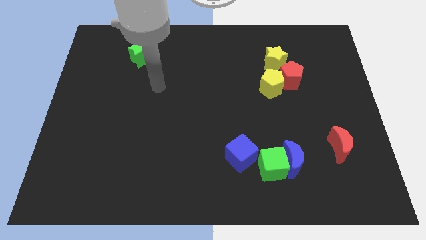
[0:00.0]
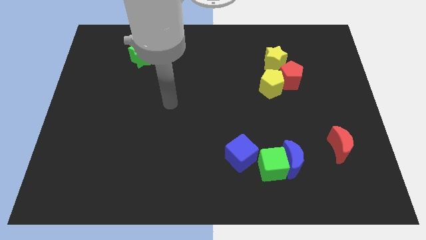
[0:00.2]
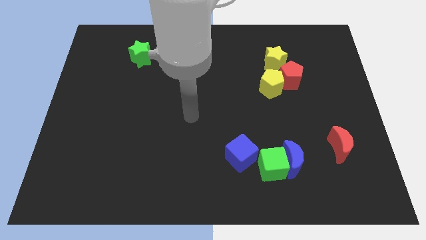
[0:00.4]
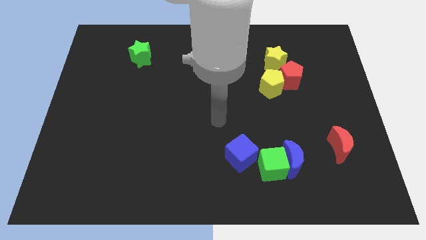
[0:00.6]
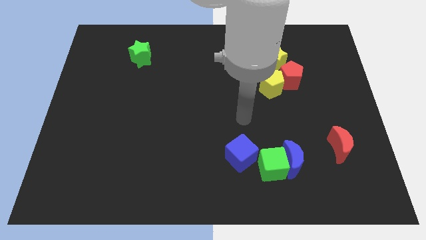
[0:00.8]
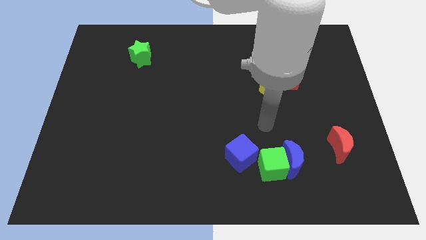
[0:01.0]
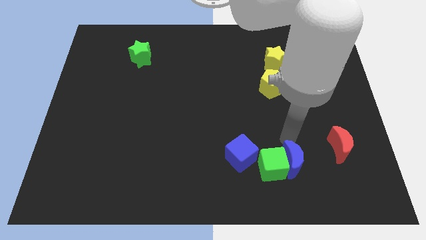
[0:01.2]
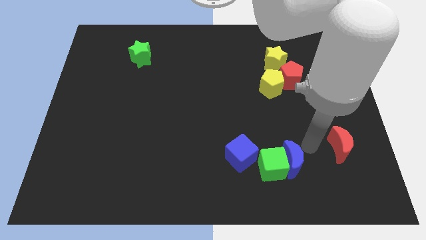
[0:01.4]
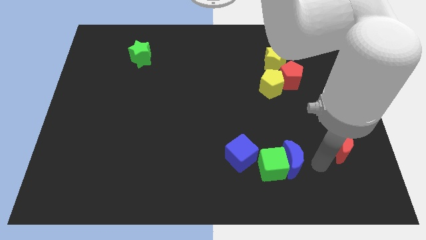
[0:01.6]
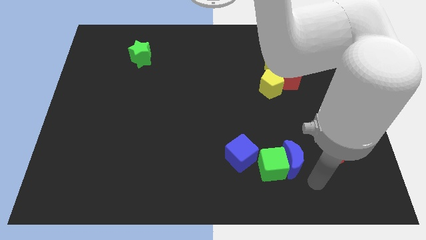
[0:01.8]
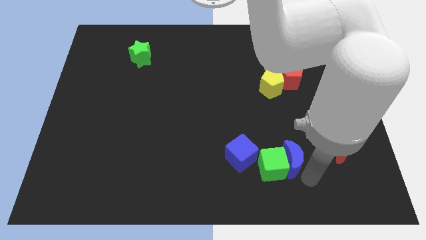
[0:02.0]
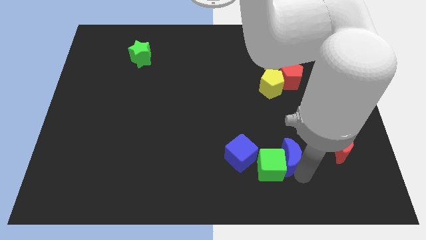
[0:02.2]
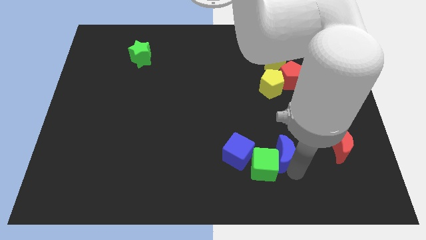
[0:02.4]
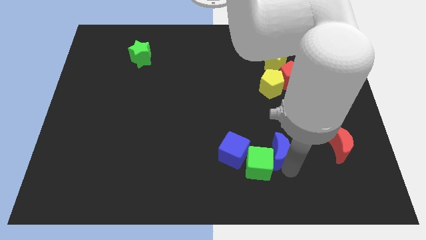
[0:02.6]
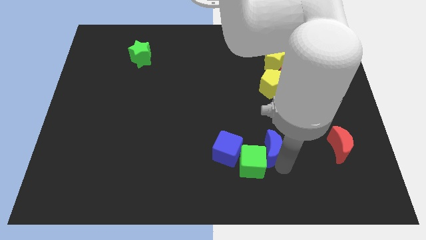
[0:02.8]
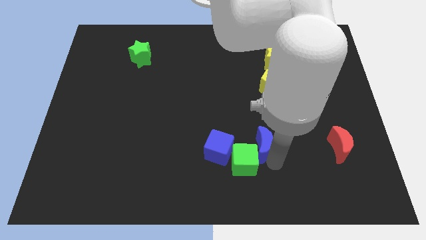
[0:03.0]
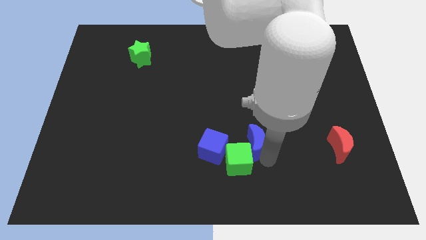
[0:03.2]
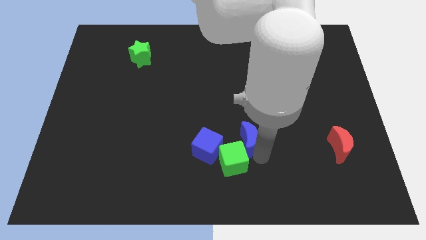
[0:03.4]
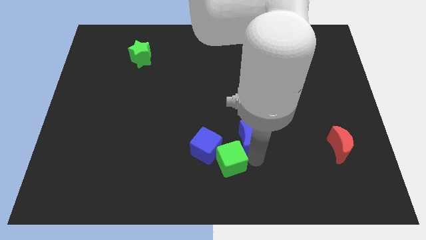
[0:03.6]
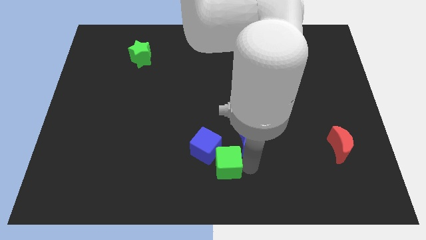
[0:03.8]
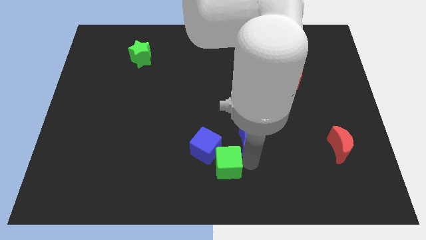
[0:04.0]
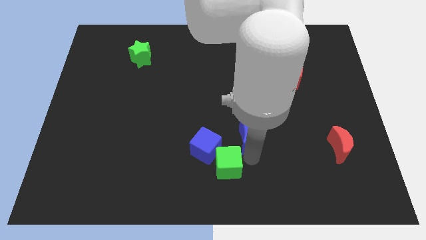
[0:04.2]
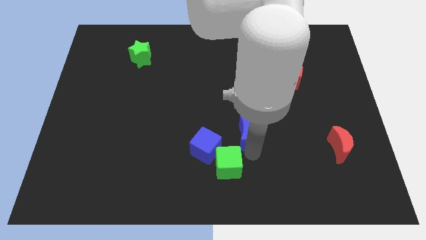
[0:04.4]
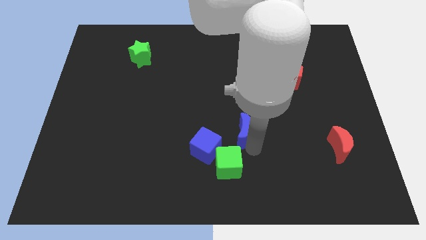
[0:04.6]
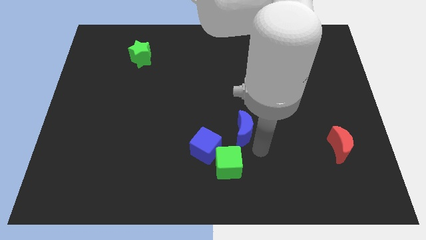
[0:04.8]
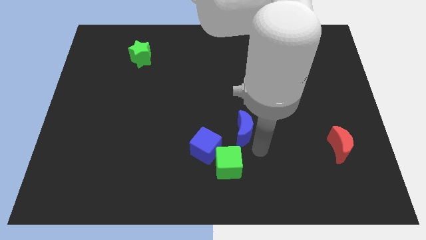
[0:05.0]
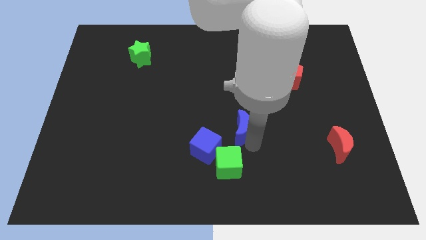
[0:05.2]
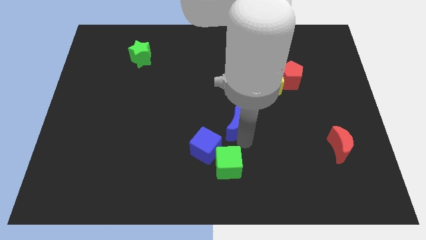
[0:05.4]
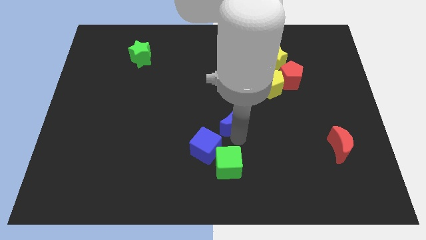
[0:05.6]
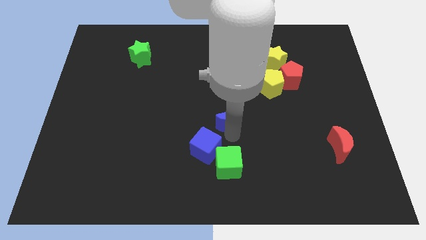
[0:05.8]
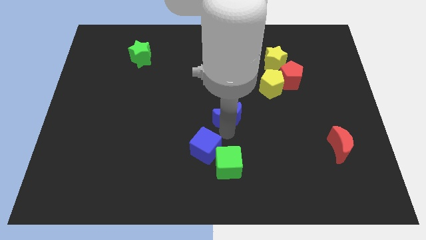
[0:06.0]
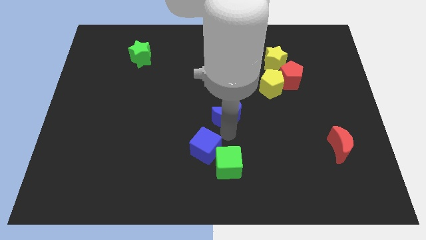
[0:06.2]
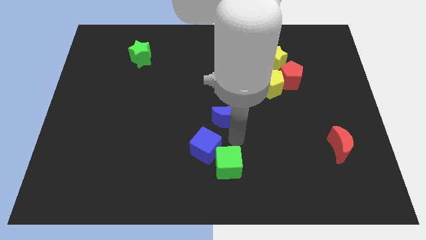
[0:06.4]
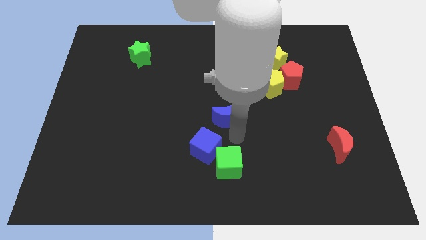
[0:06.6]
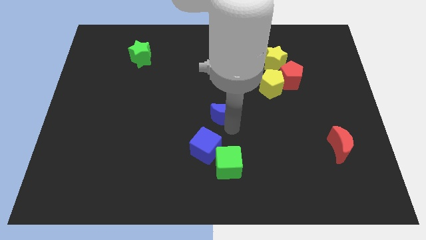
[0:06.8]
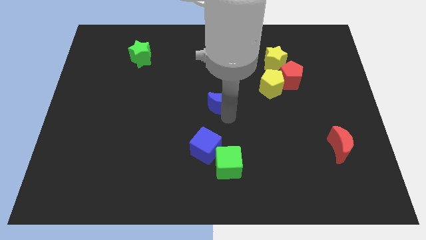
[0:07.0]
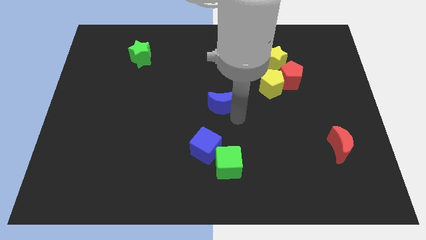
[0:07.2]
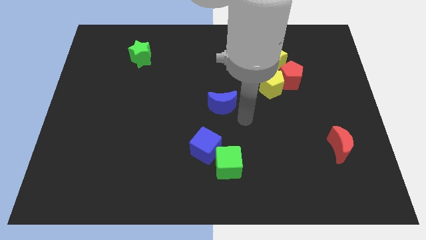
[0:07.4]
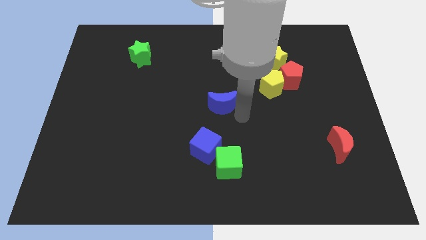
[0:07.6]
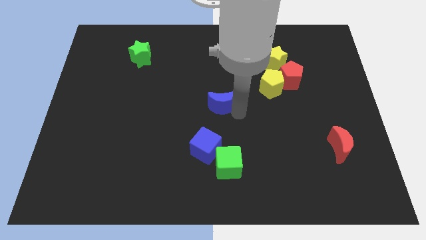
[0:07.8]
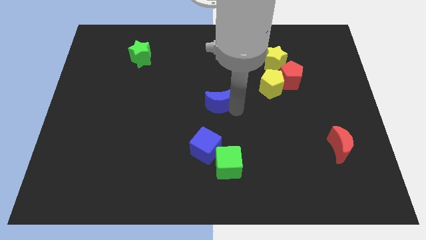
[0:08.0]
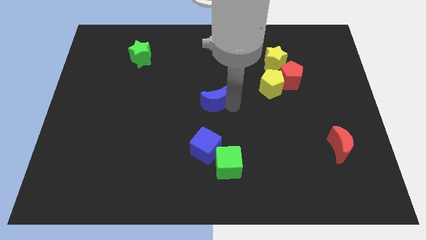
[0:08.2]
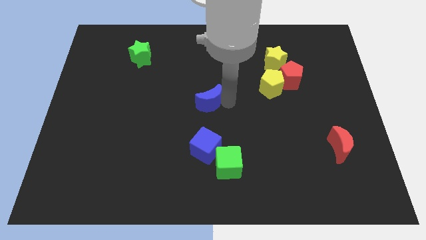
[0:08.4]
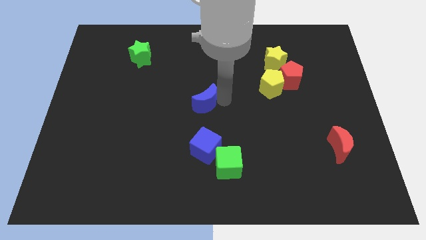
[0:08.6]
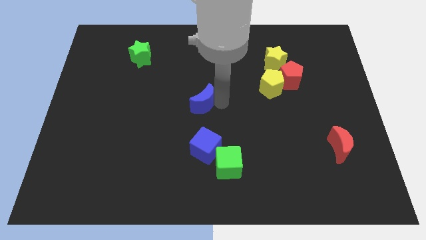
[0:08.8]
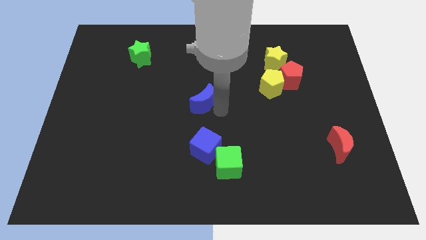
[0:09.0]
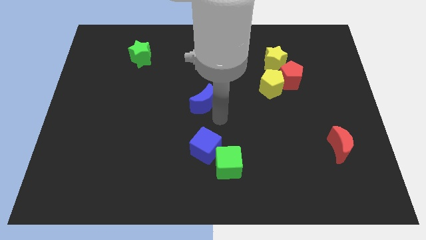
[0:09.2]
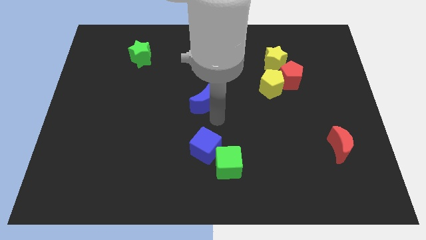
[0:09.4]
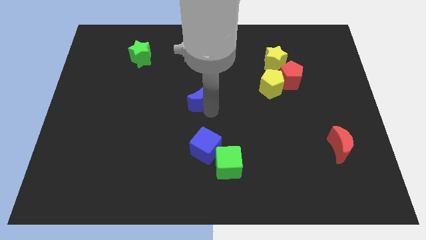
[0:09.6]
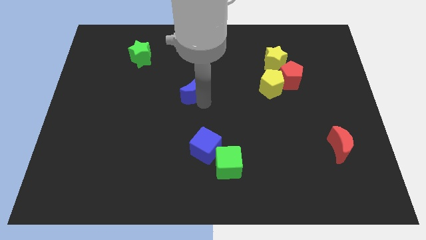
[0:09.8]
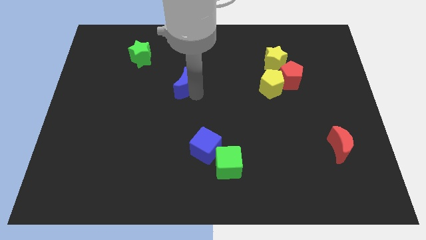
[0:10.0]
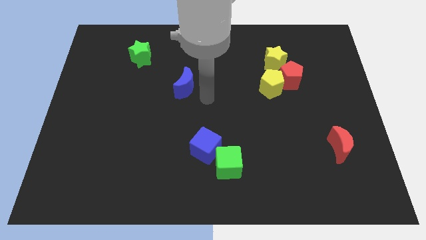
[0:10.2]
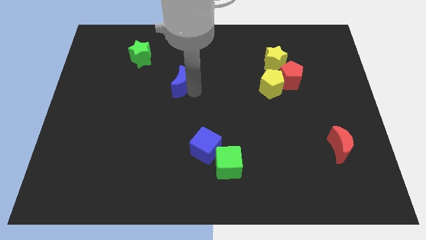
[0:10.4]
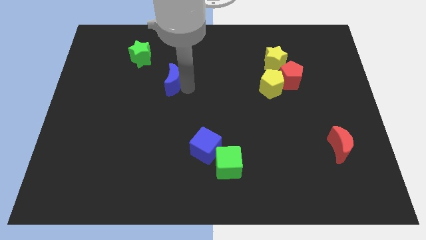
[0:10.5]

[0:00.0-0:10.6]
move the blue moon to the bottom right of the green star

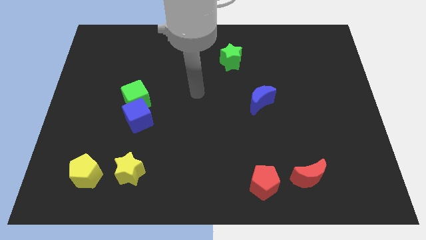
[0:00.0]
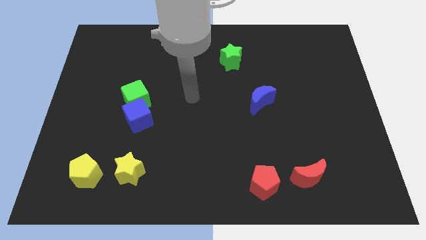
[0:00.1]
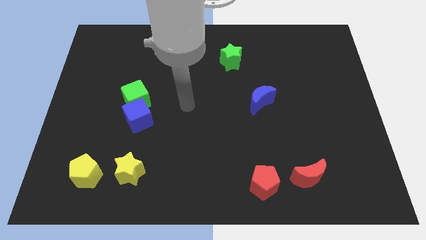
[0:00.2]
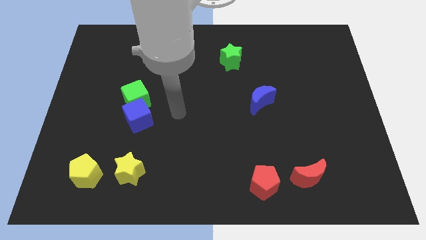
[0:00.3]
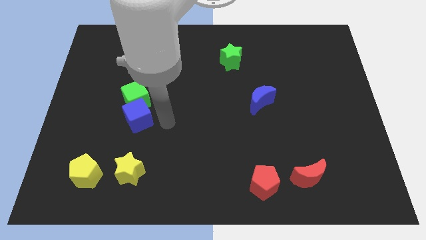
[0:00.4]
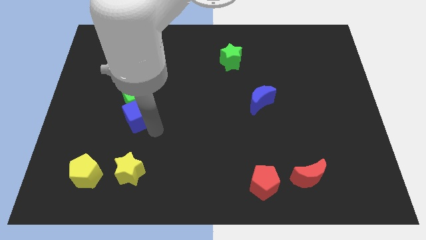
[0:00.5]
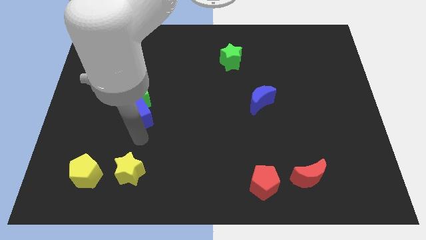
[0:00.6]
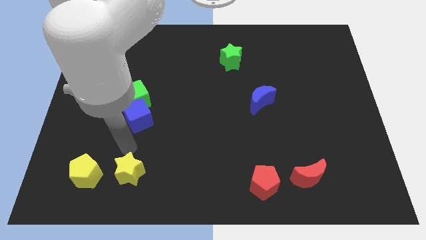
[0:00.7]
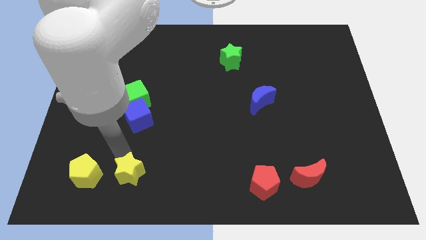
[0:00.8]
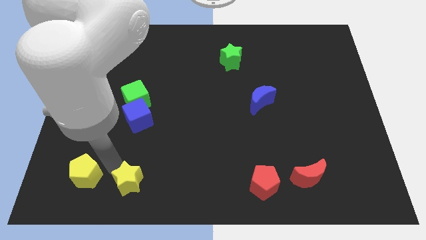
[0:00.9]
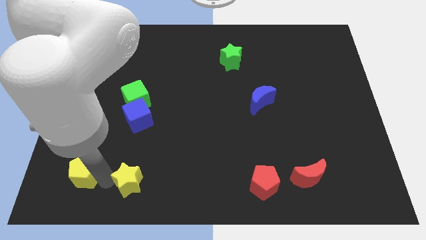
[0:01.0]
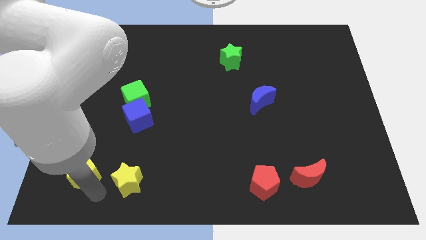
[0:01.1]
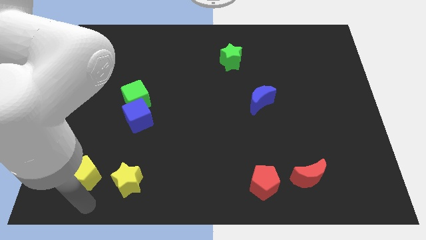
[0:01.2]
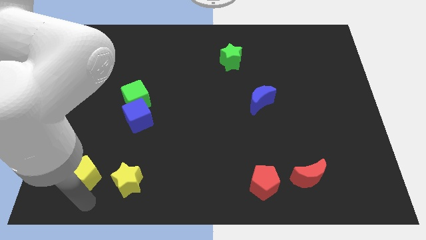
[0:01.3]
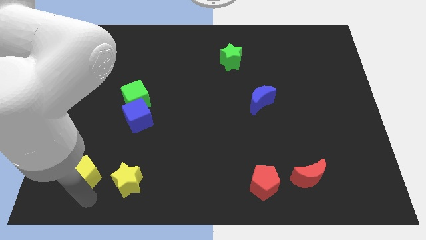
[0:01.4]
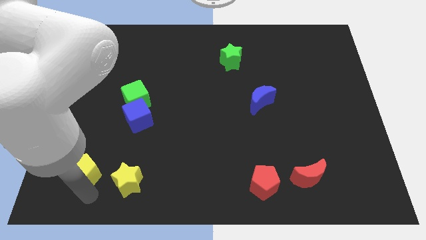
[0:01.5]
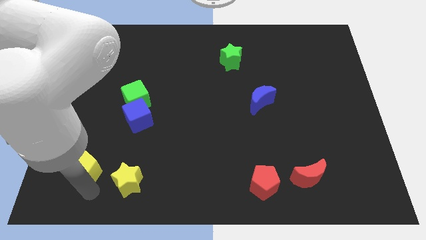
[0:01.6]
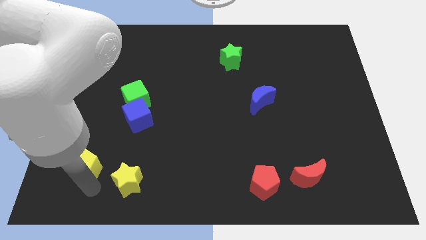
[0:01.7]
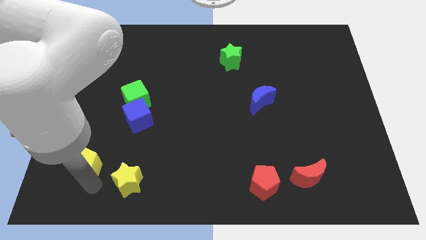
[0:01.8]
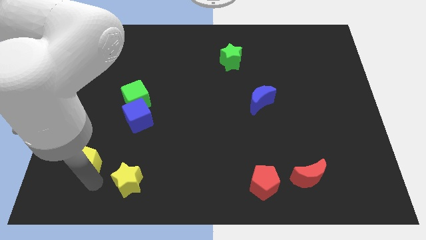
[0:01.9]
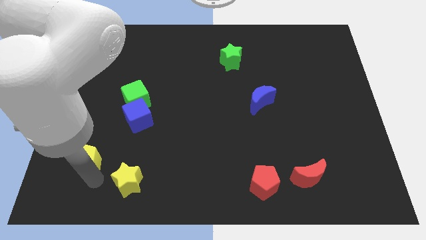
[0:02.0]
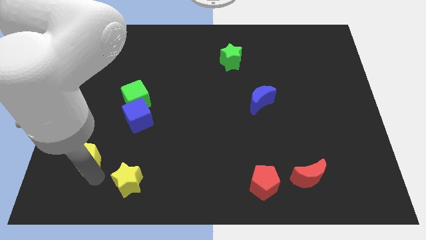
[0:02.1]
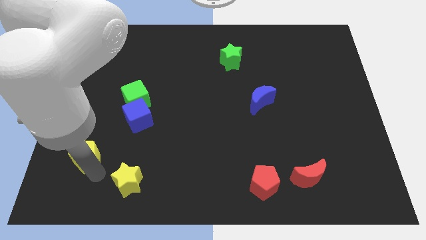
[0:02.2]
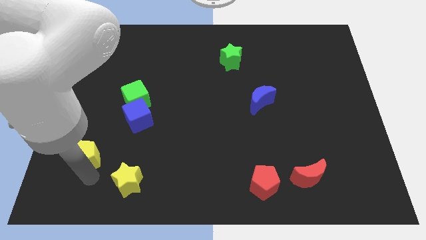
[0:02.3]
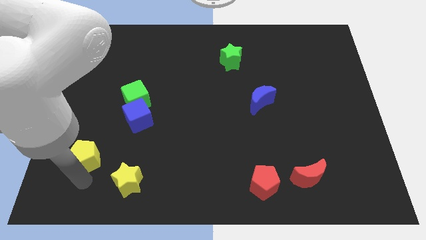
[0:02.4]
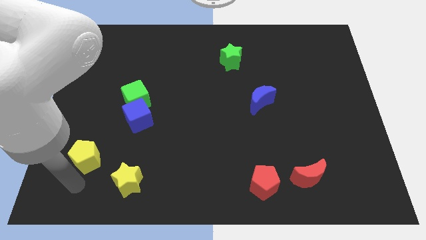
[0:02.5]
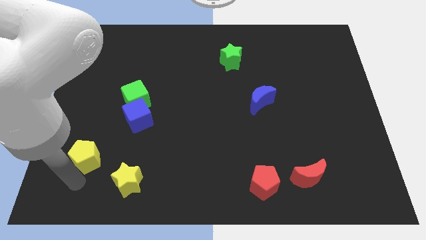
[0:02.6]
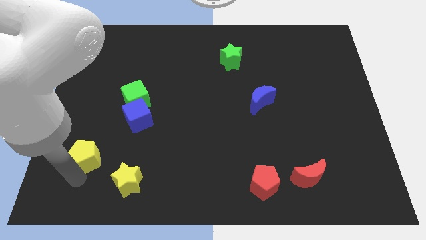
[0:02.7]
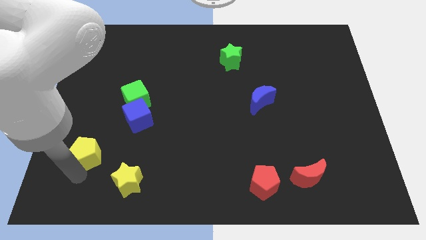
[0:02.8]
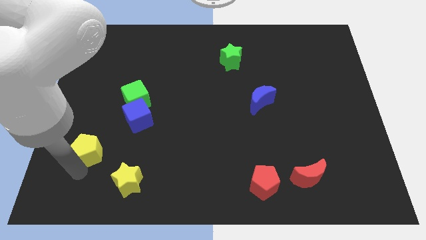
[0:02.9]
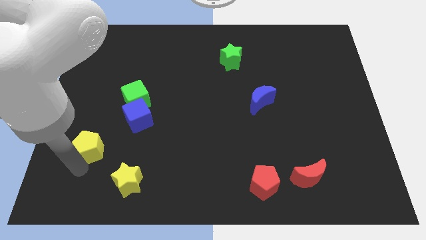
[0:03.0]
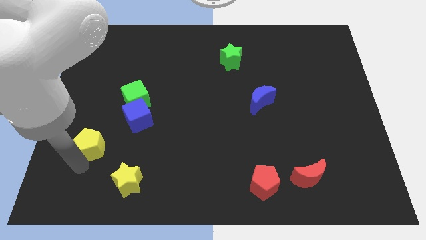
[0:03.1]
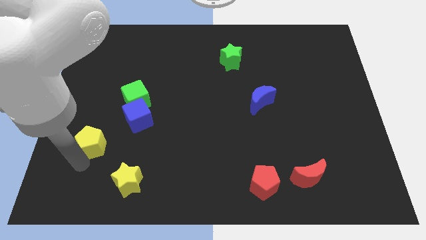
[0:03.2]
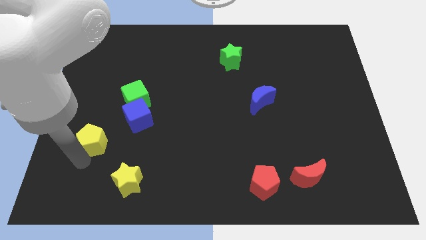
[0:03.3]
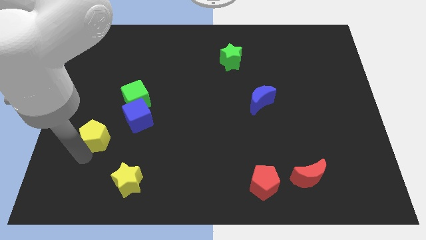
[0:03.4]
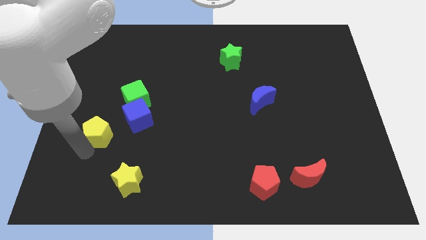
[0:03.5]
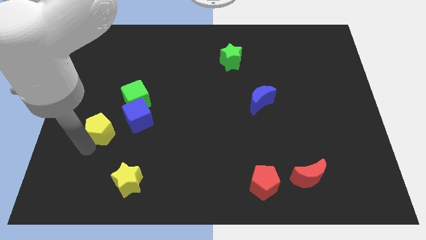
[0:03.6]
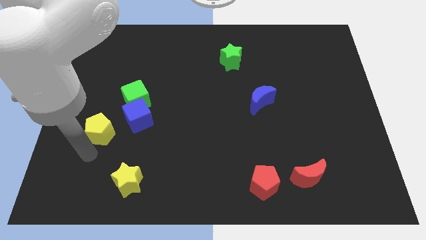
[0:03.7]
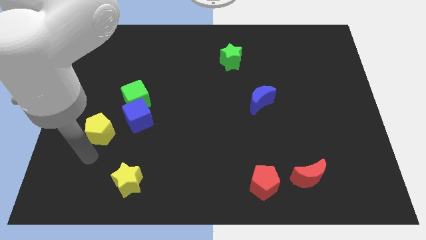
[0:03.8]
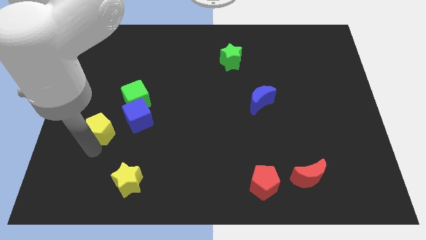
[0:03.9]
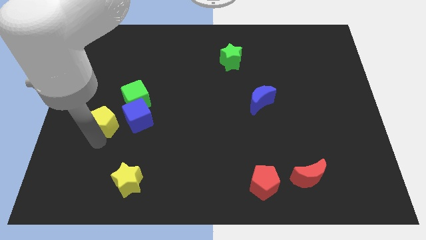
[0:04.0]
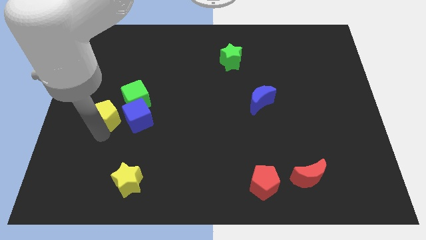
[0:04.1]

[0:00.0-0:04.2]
slide the yellow pentagon to the top left of the blue cube
